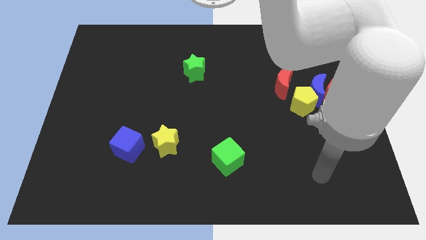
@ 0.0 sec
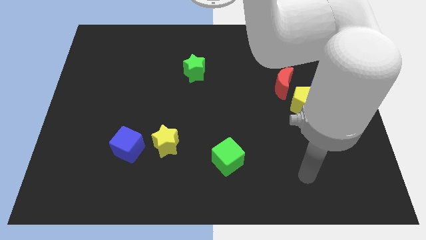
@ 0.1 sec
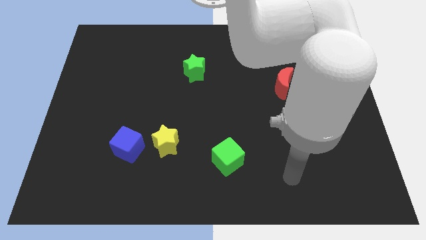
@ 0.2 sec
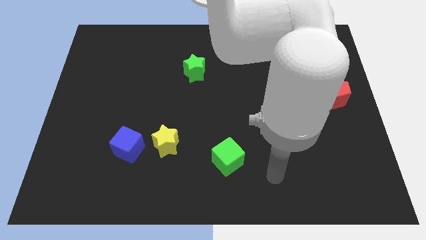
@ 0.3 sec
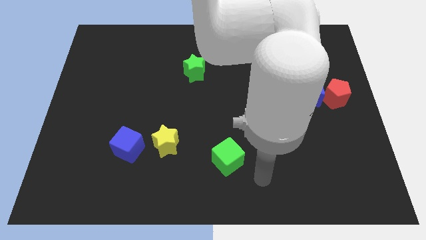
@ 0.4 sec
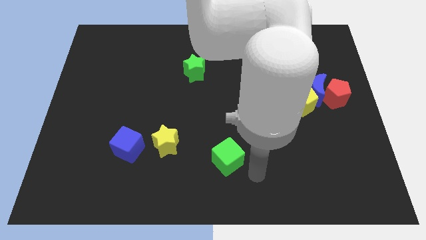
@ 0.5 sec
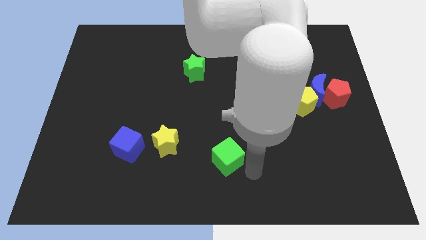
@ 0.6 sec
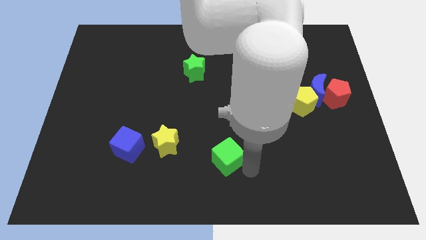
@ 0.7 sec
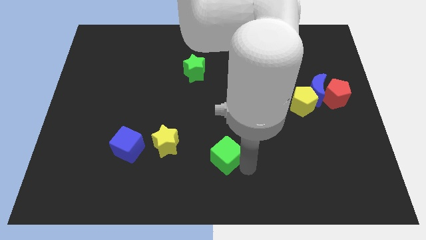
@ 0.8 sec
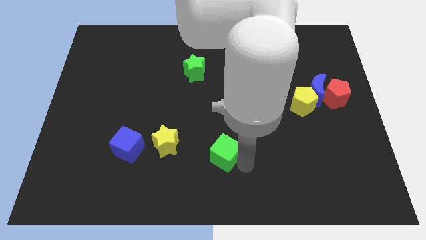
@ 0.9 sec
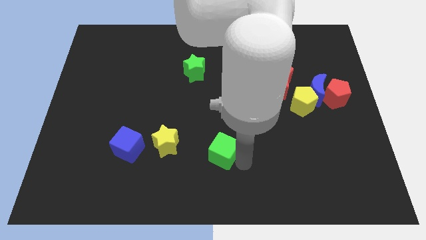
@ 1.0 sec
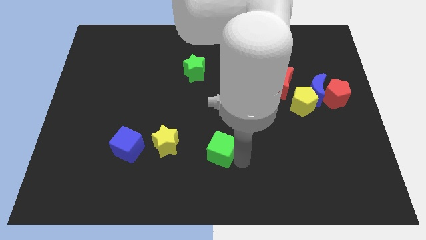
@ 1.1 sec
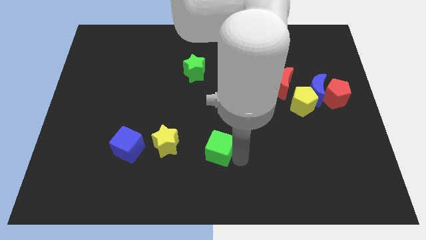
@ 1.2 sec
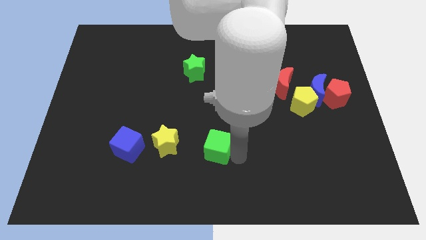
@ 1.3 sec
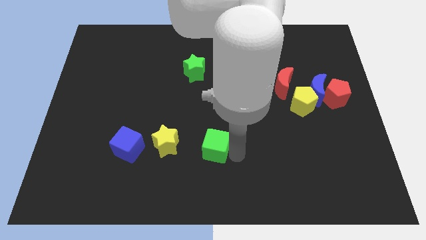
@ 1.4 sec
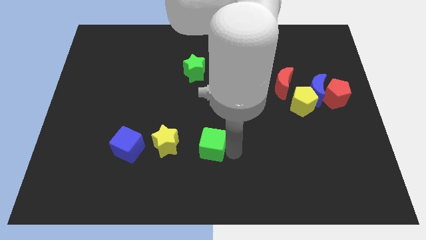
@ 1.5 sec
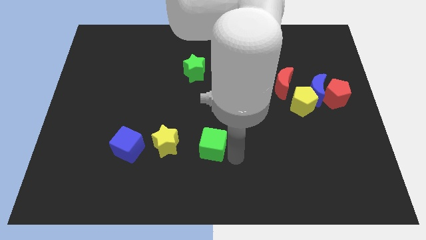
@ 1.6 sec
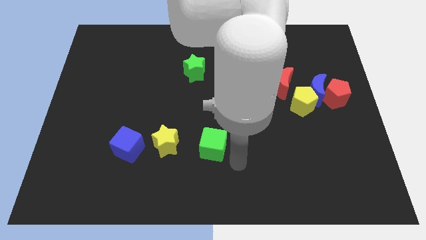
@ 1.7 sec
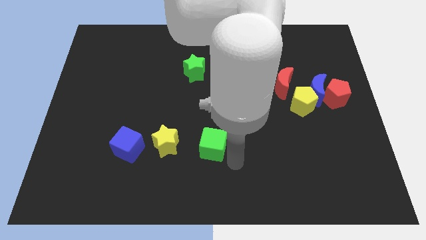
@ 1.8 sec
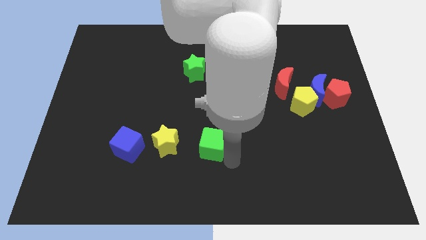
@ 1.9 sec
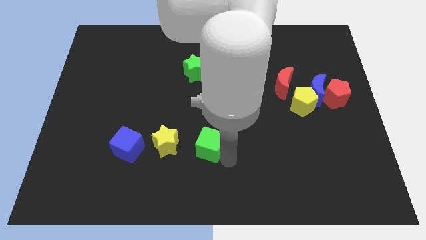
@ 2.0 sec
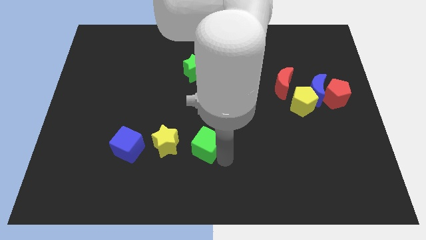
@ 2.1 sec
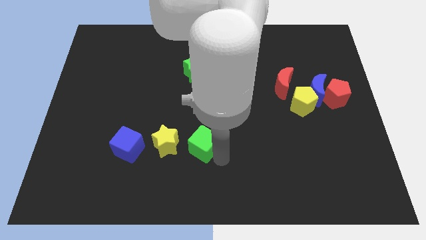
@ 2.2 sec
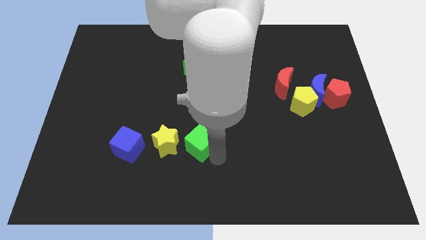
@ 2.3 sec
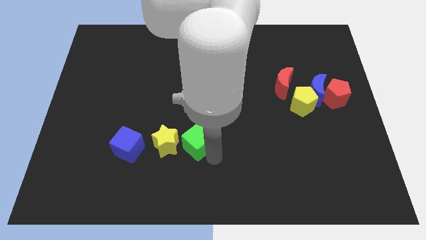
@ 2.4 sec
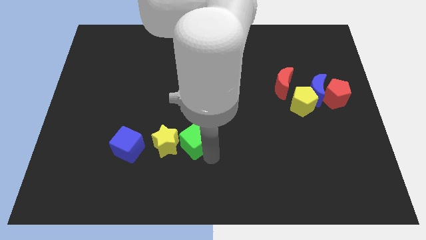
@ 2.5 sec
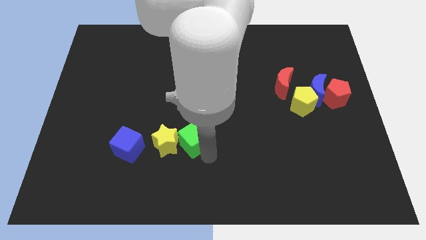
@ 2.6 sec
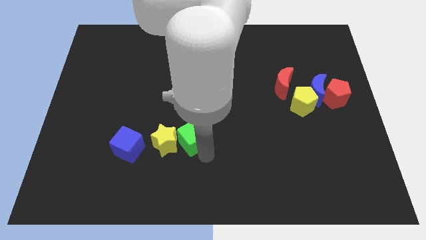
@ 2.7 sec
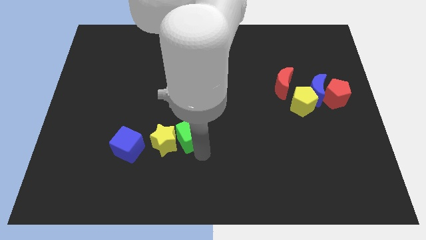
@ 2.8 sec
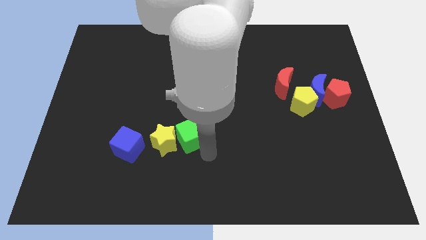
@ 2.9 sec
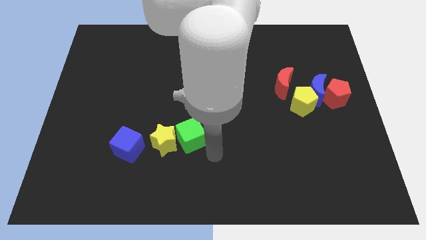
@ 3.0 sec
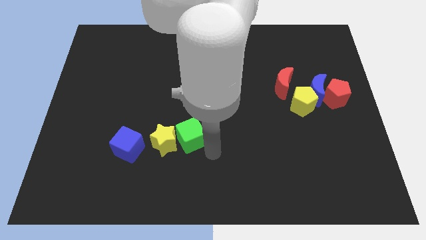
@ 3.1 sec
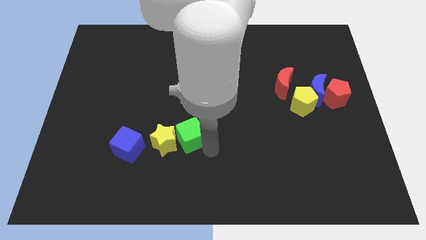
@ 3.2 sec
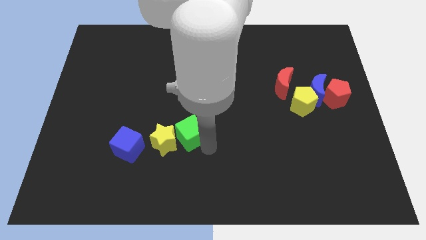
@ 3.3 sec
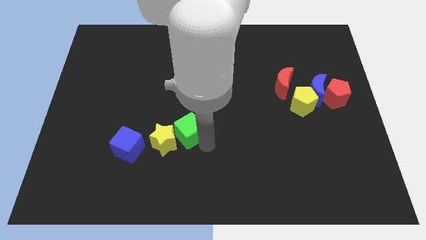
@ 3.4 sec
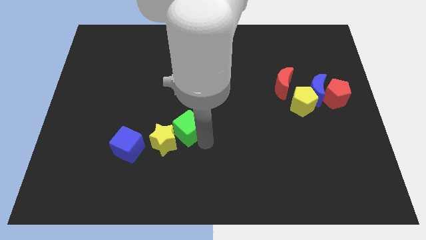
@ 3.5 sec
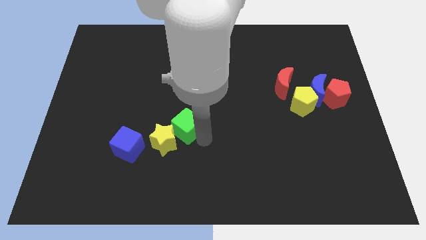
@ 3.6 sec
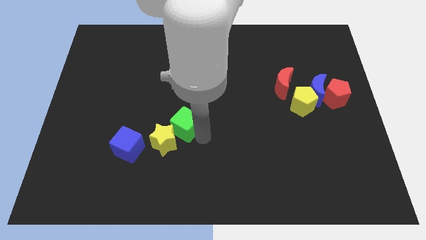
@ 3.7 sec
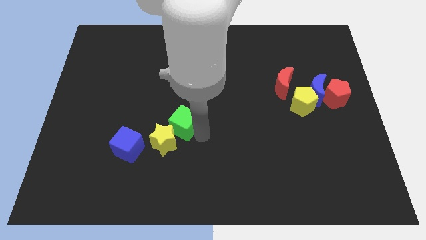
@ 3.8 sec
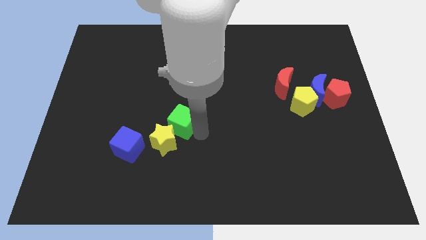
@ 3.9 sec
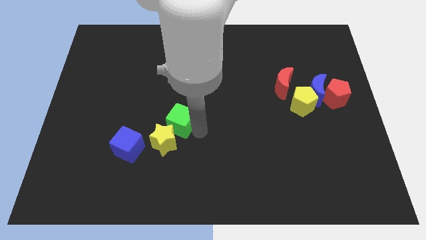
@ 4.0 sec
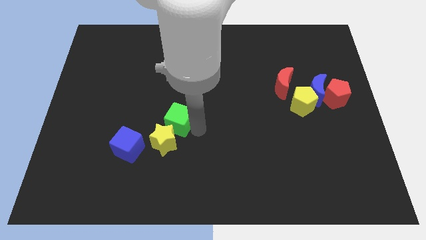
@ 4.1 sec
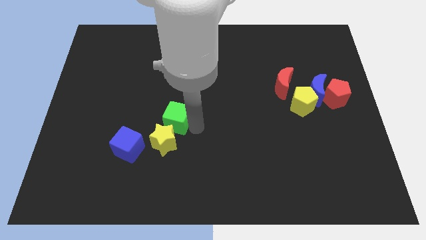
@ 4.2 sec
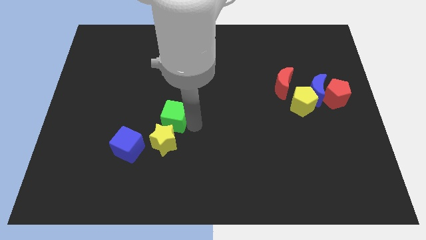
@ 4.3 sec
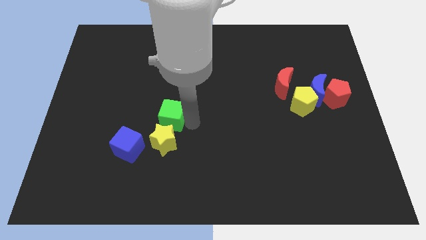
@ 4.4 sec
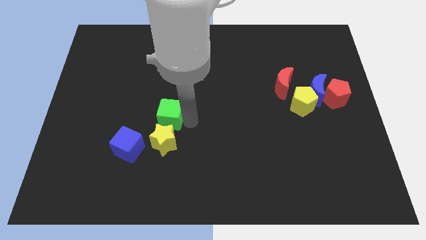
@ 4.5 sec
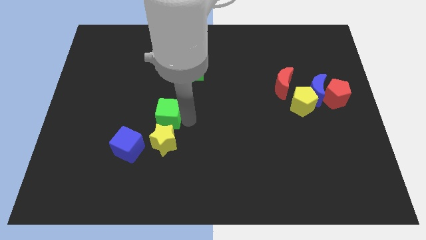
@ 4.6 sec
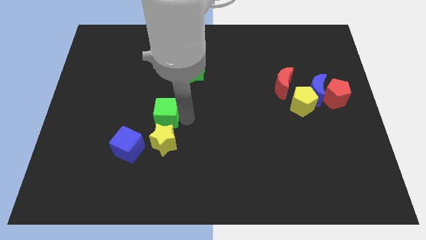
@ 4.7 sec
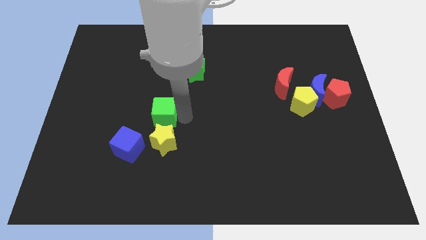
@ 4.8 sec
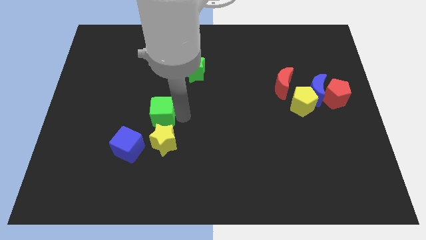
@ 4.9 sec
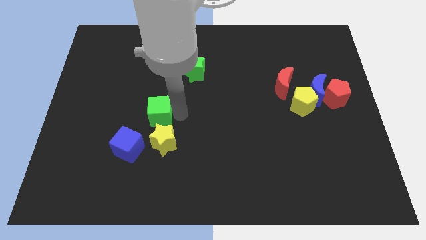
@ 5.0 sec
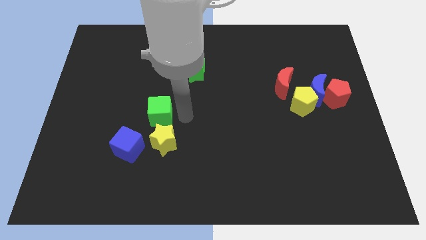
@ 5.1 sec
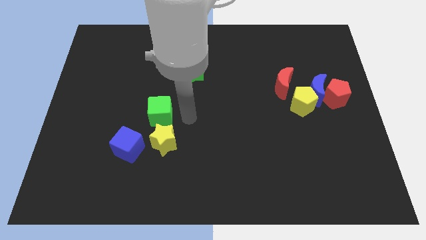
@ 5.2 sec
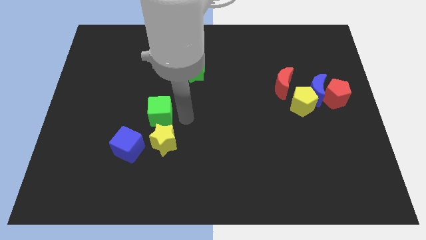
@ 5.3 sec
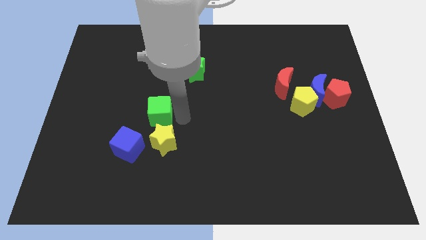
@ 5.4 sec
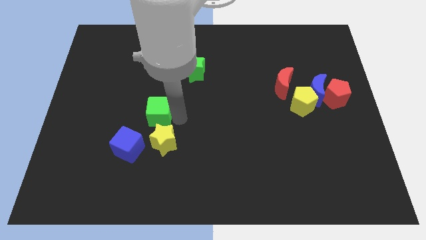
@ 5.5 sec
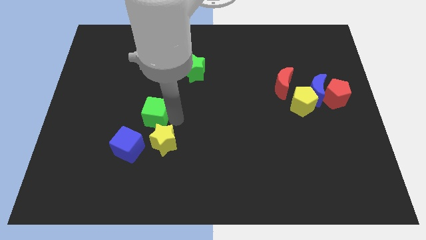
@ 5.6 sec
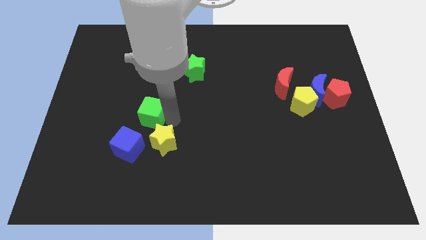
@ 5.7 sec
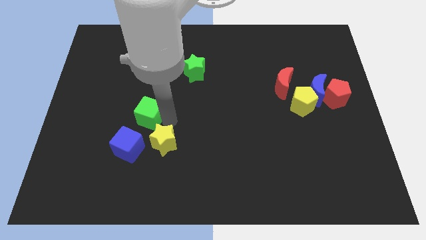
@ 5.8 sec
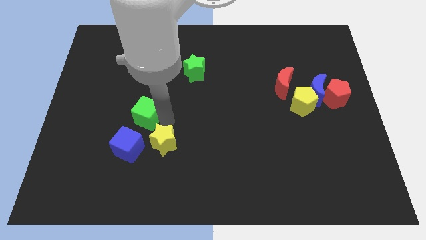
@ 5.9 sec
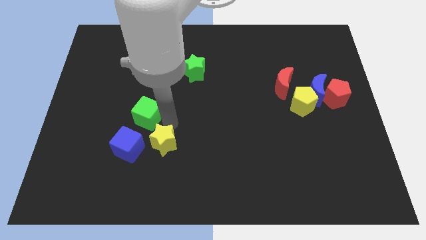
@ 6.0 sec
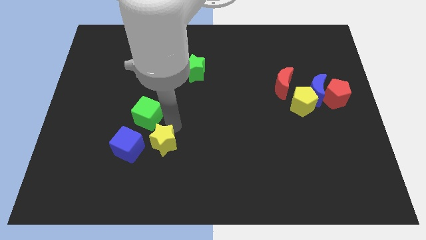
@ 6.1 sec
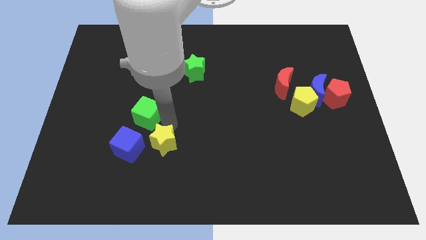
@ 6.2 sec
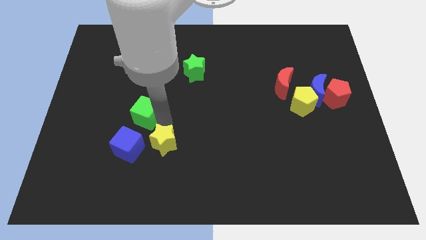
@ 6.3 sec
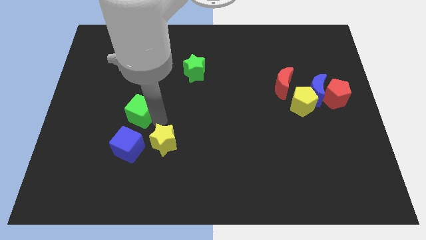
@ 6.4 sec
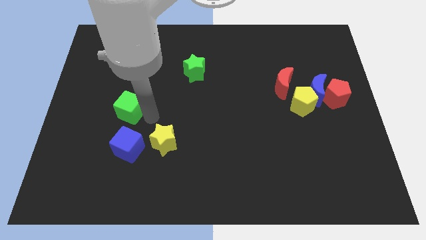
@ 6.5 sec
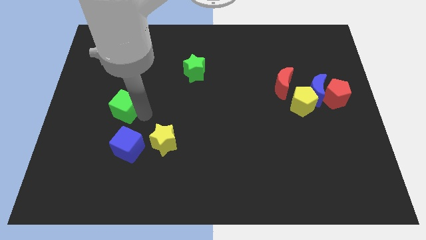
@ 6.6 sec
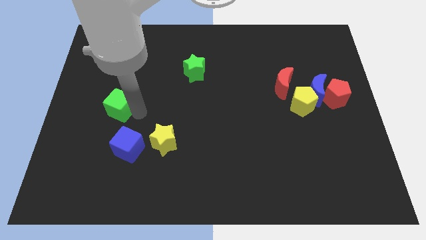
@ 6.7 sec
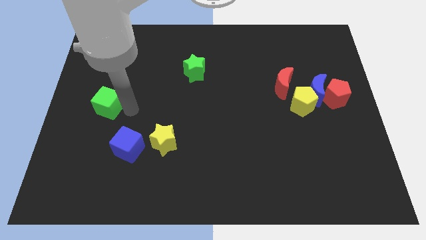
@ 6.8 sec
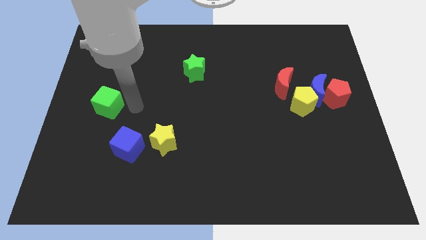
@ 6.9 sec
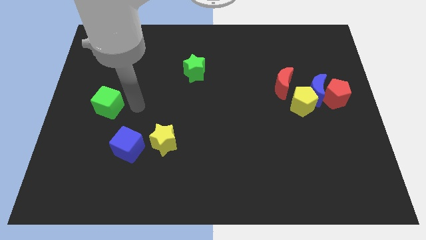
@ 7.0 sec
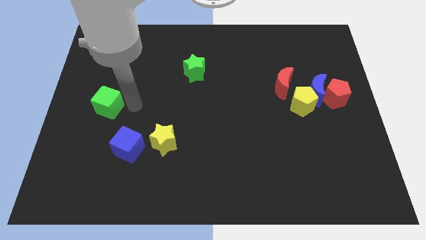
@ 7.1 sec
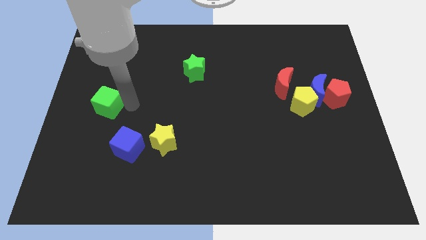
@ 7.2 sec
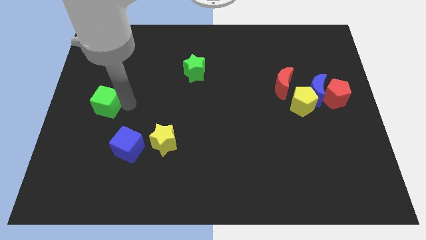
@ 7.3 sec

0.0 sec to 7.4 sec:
move the green cube to the left side of the board
